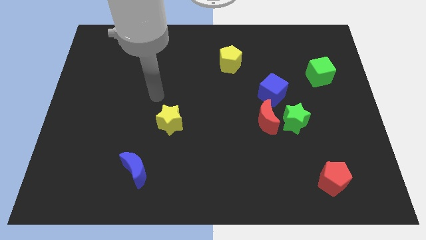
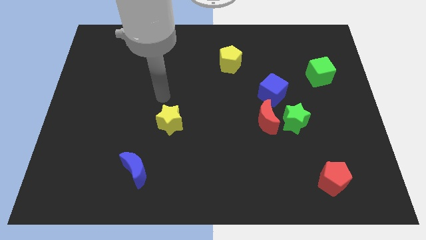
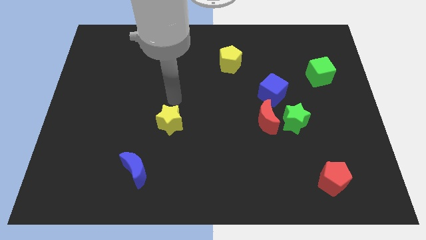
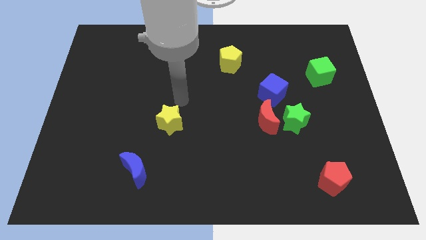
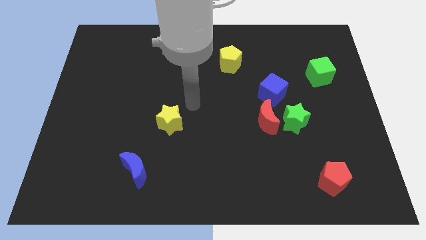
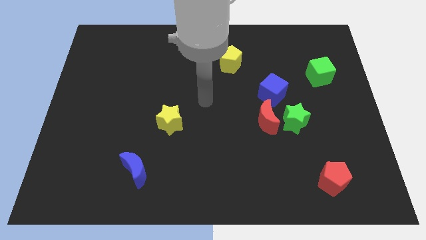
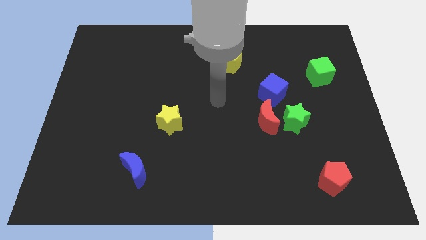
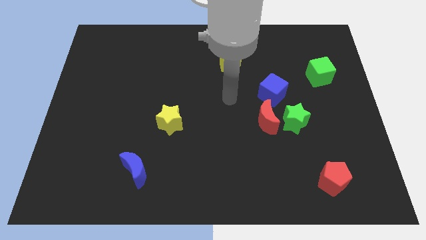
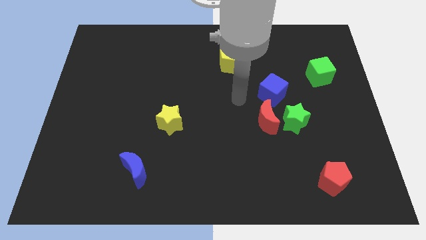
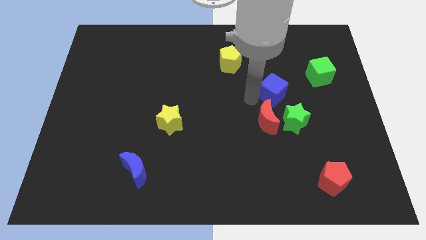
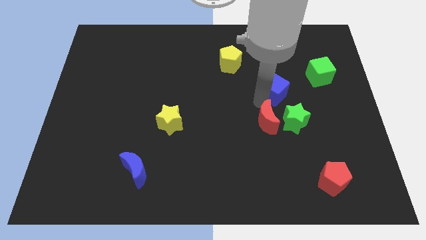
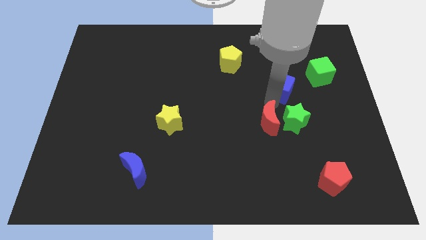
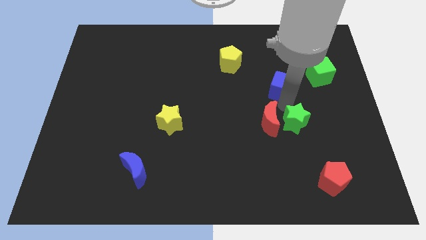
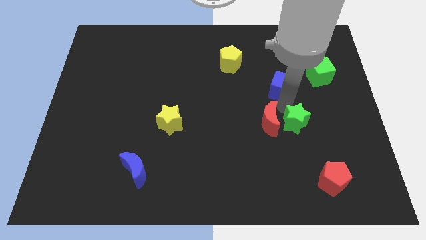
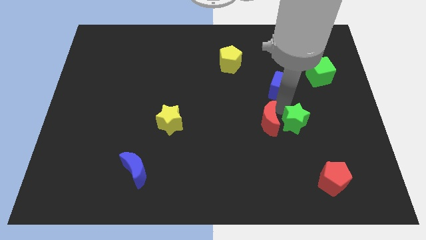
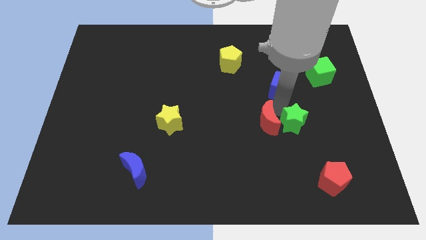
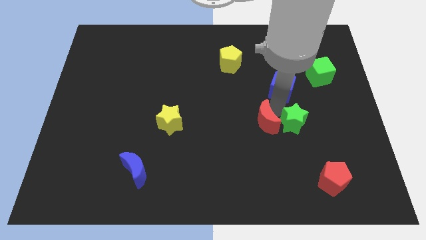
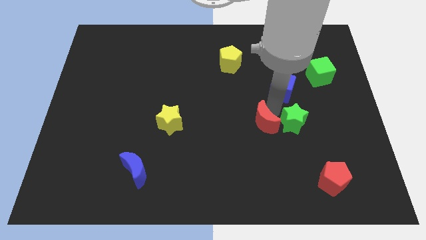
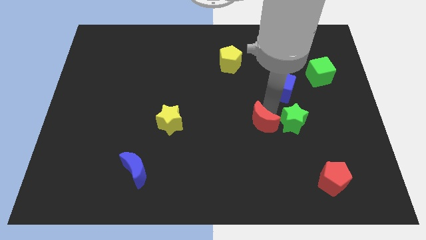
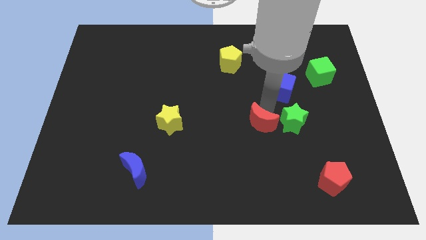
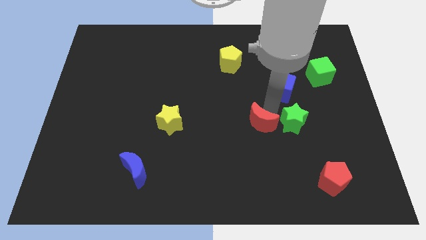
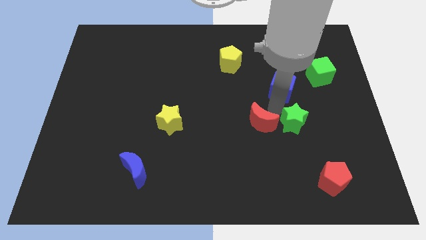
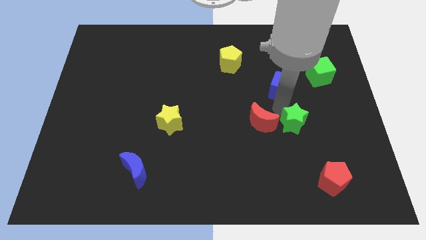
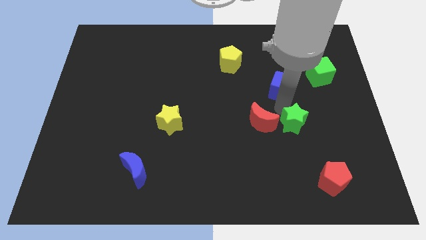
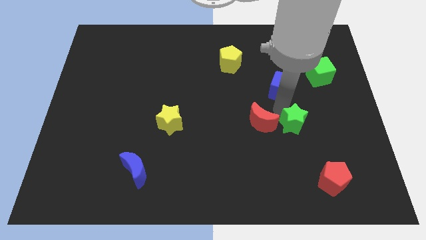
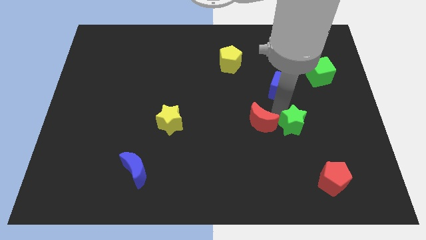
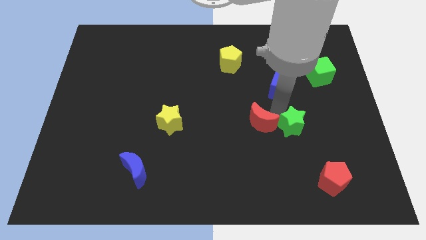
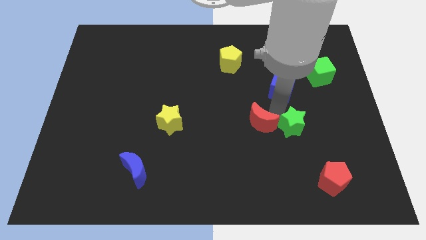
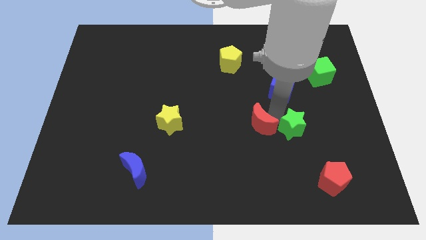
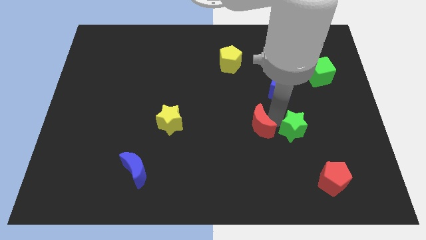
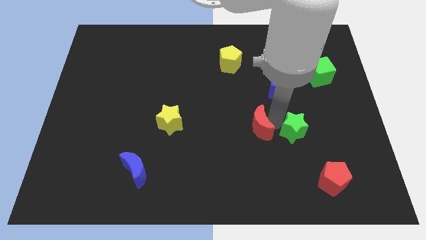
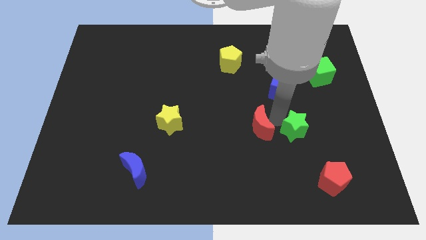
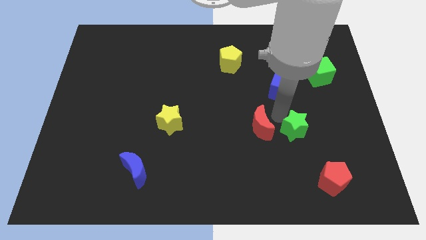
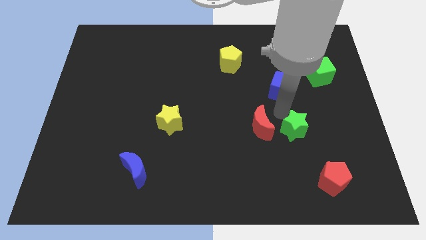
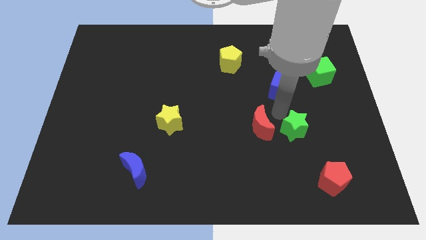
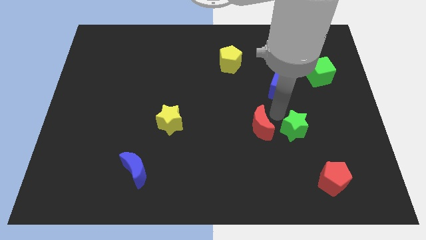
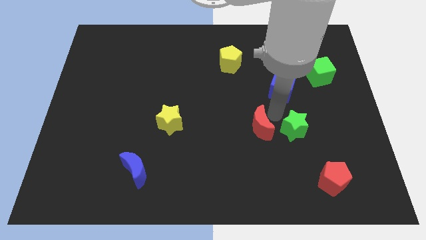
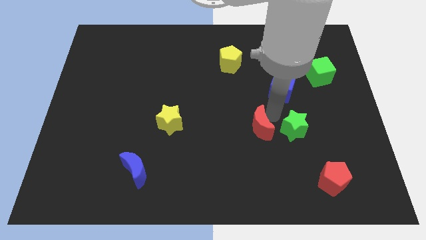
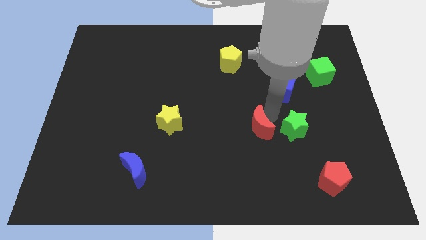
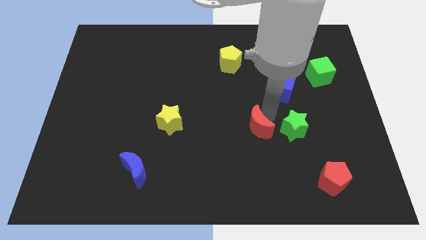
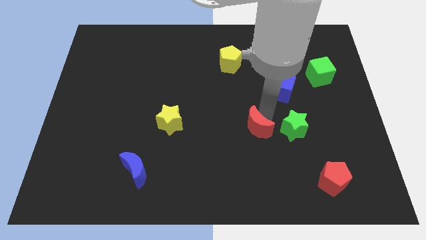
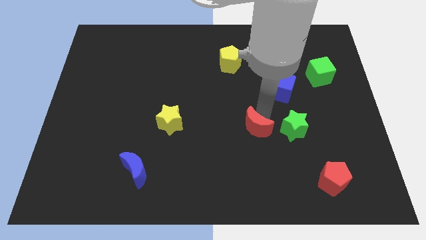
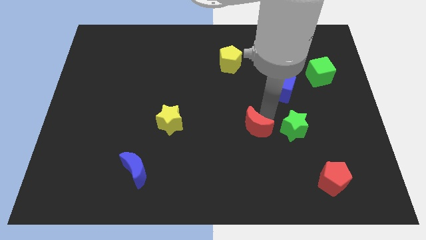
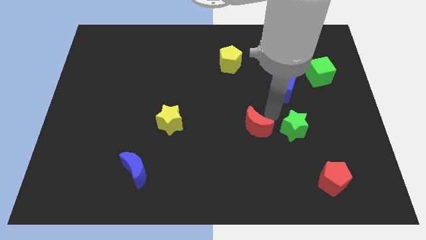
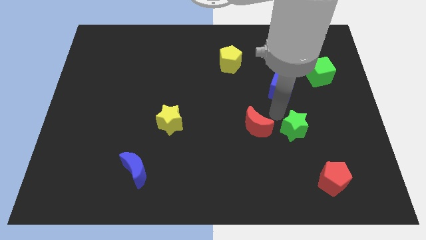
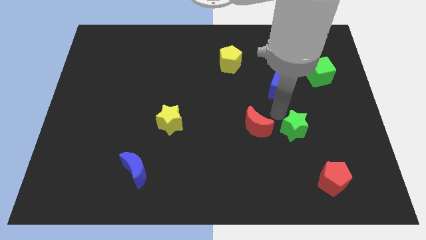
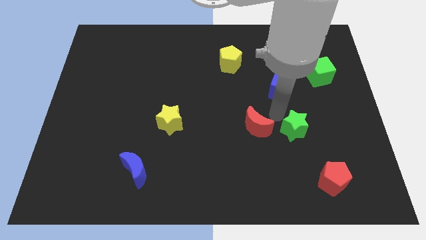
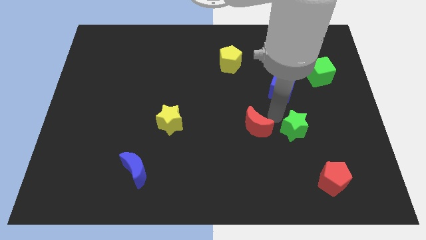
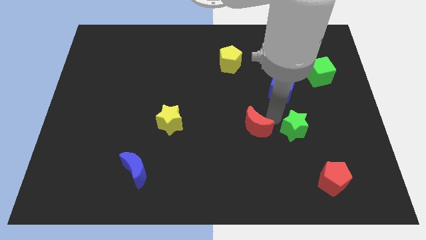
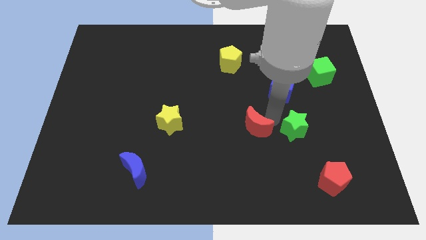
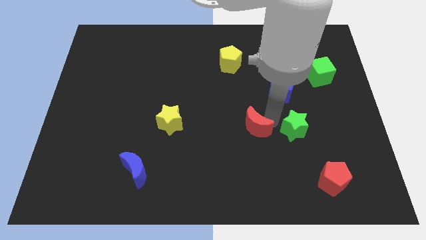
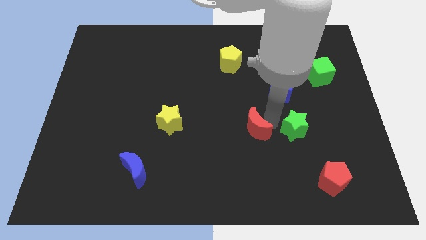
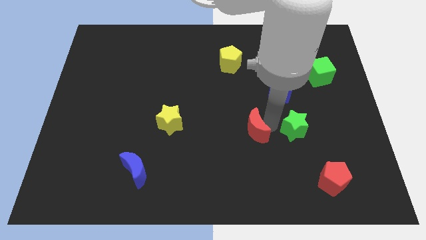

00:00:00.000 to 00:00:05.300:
move the red moon away from the green star and blue cube

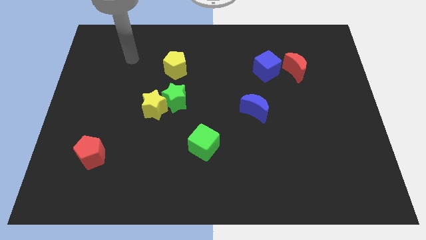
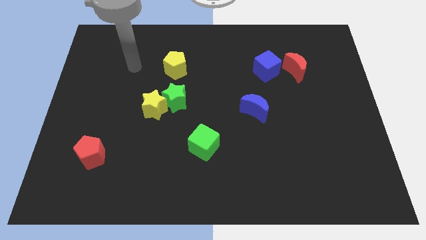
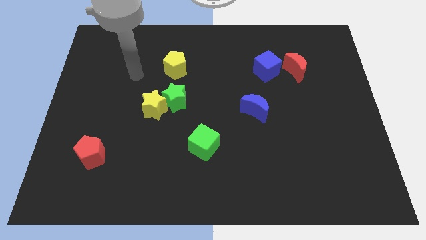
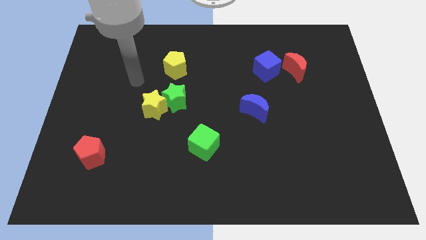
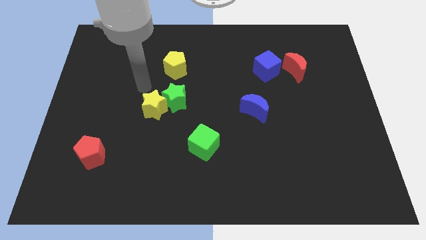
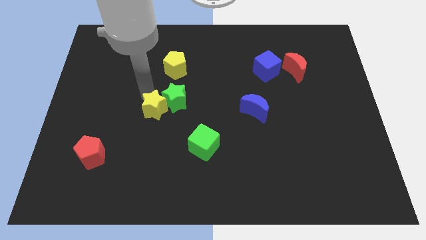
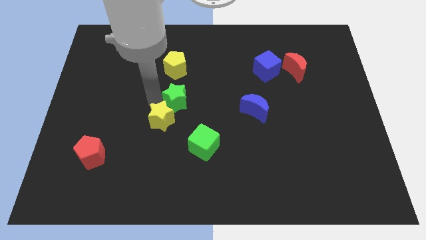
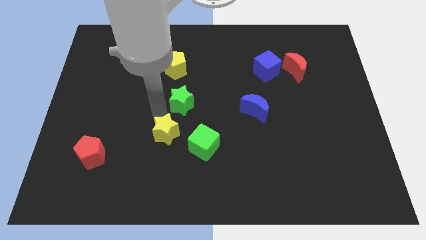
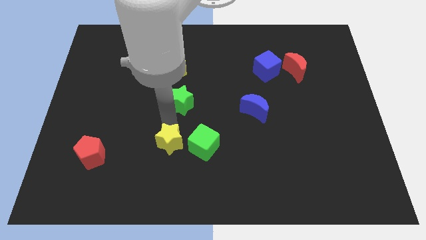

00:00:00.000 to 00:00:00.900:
move the green star away from the yellow star

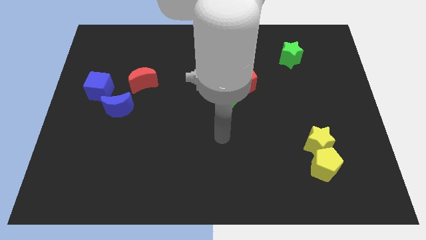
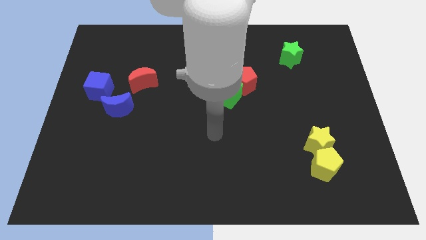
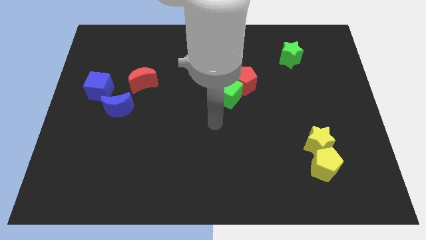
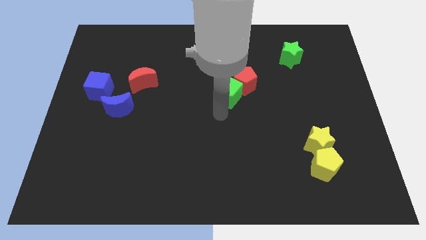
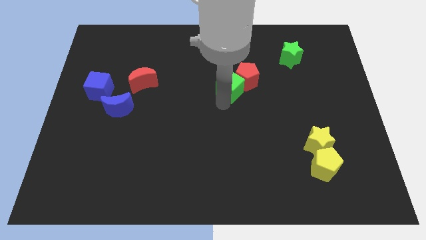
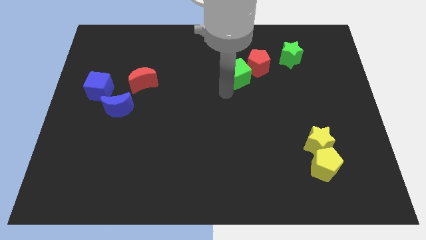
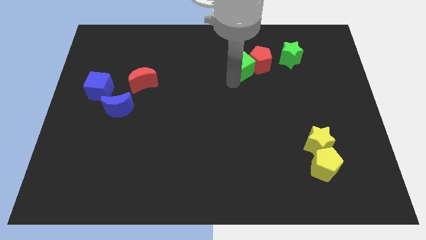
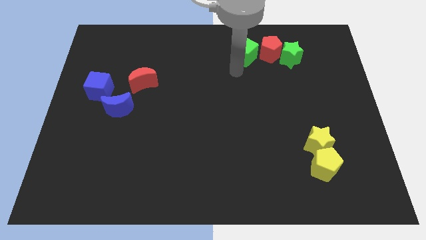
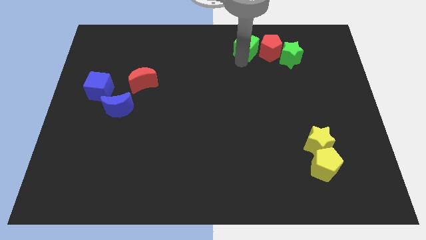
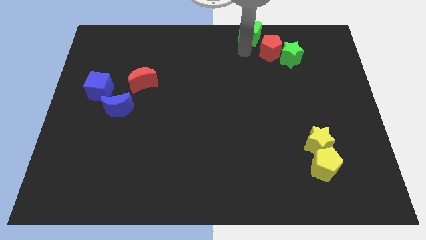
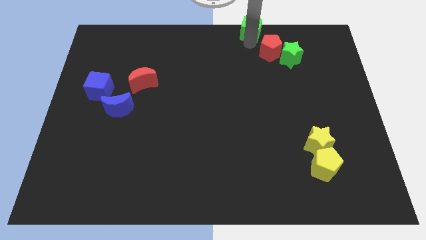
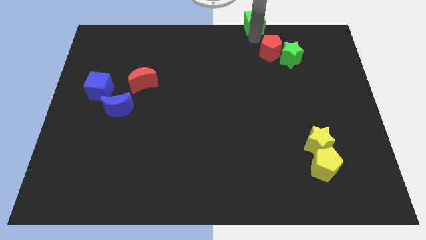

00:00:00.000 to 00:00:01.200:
move the red pentagon away from the green cube

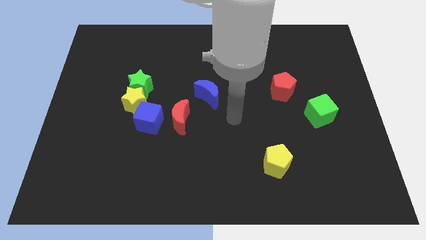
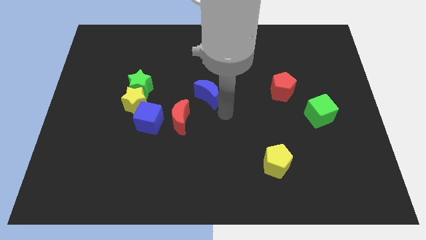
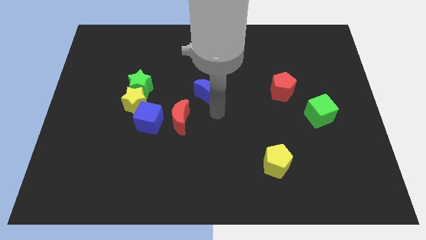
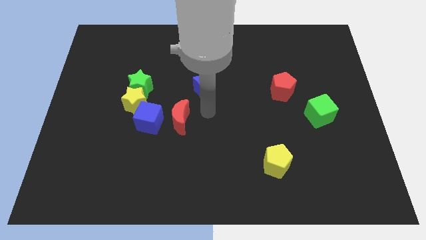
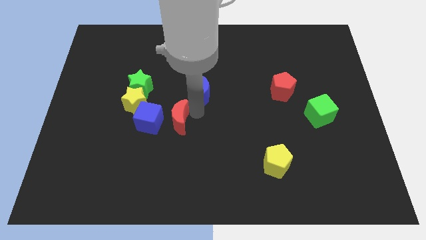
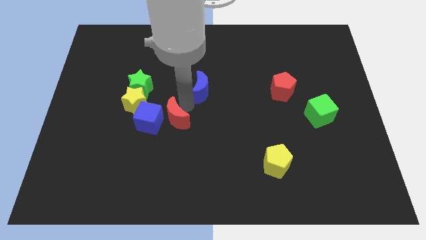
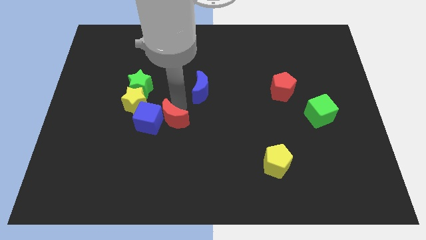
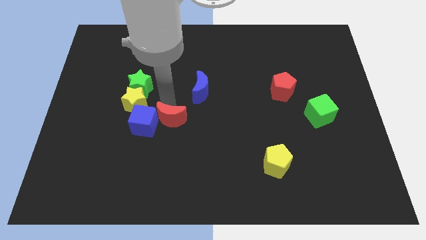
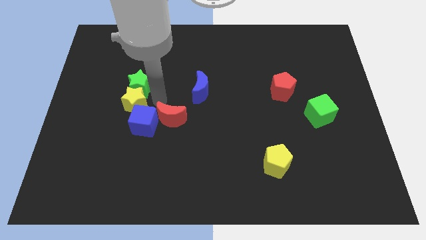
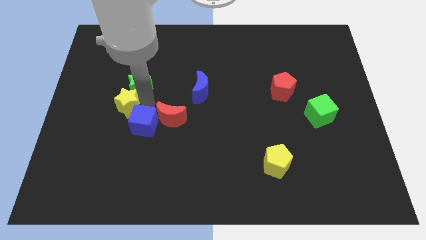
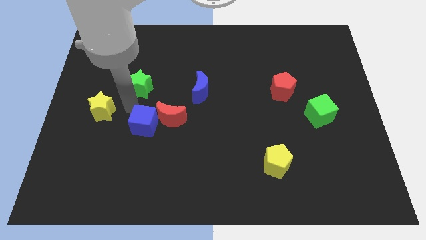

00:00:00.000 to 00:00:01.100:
separate the green star from the yellow star

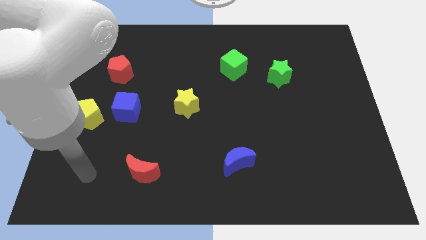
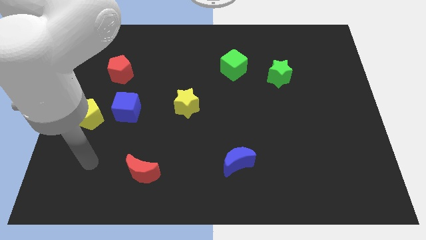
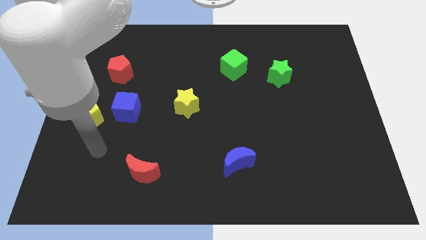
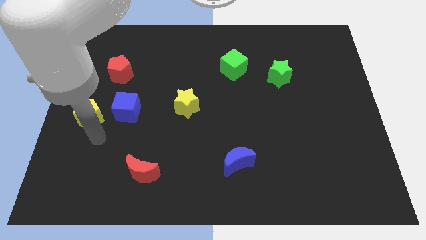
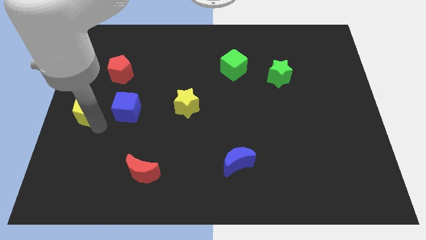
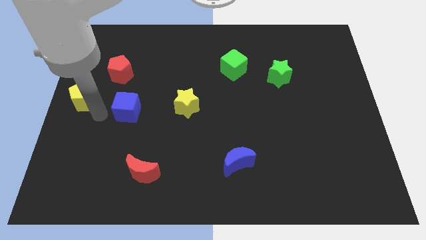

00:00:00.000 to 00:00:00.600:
move the blue cube away from the yellow pentagon

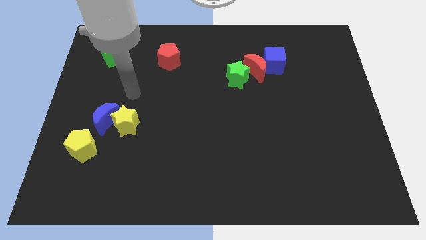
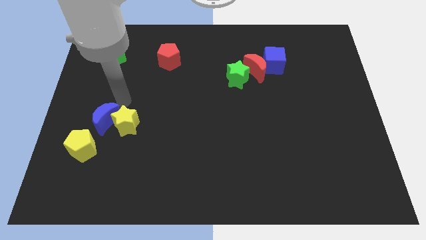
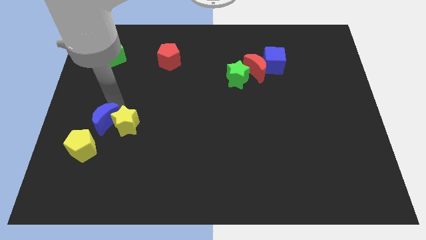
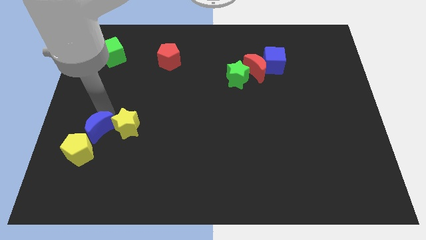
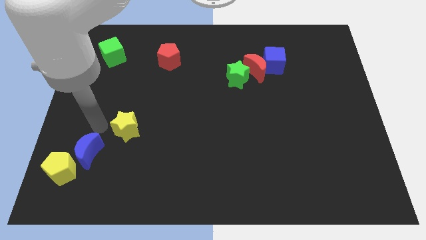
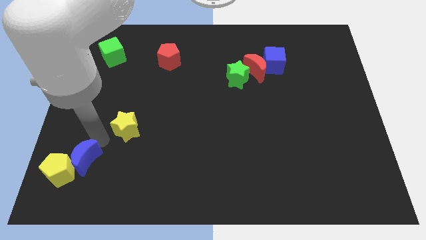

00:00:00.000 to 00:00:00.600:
pull the yellow star apart from the blue moon
